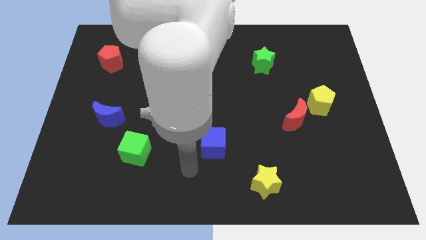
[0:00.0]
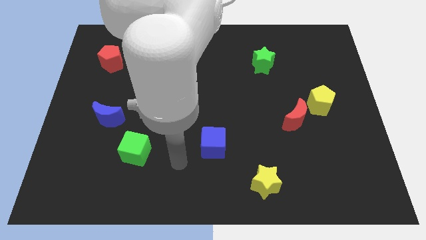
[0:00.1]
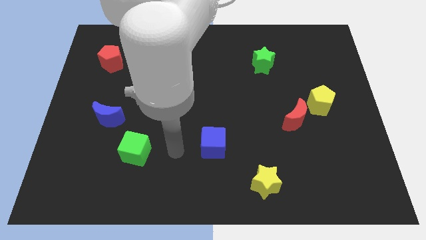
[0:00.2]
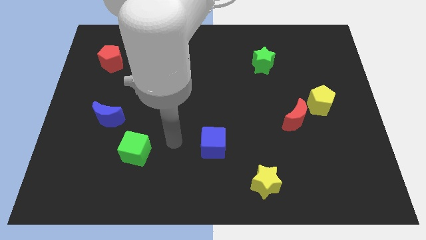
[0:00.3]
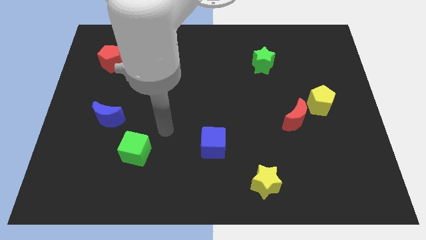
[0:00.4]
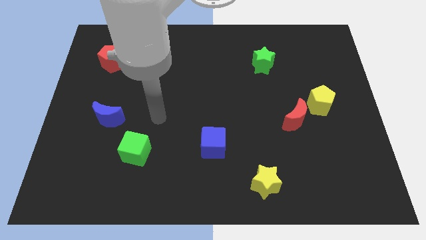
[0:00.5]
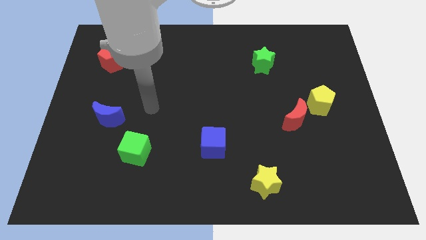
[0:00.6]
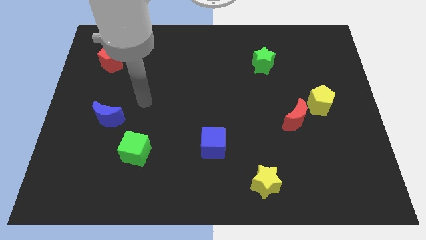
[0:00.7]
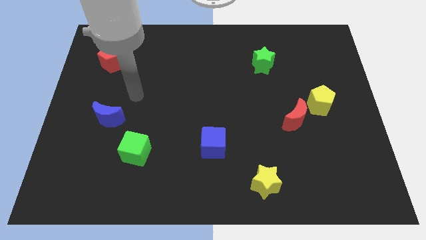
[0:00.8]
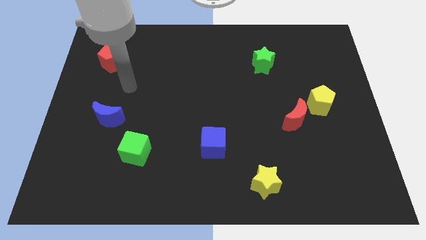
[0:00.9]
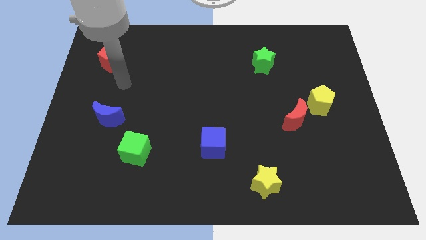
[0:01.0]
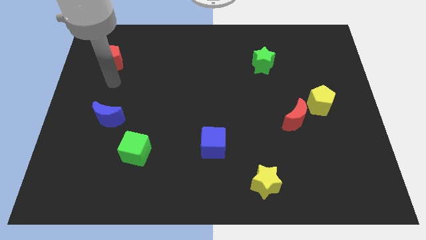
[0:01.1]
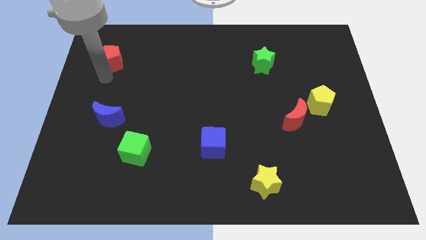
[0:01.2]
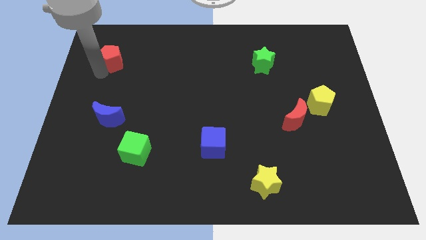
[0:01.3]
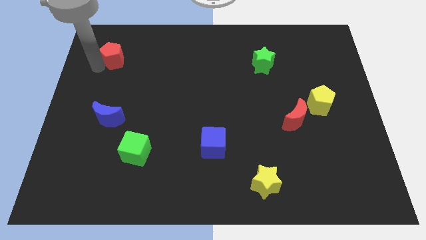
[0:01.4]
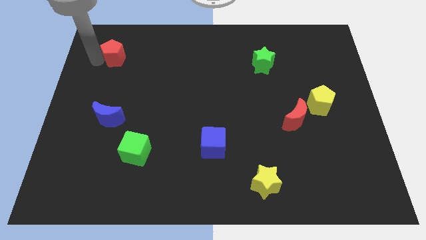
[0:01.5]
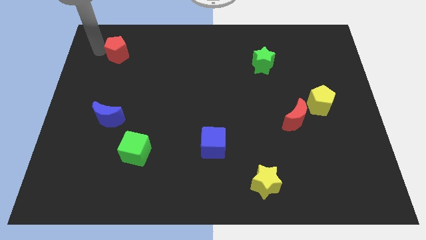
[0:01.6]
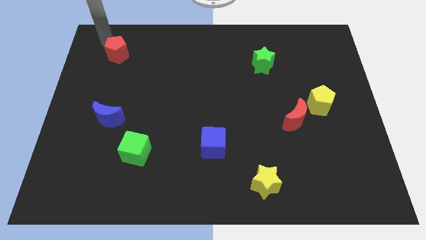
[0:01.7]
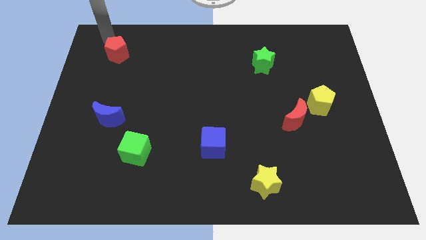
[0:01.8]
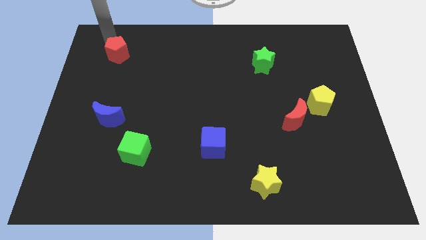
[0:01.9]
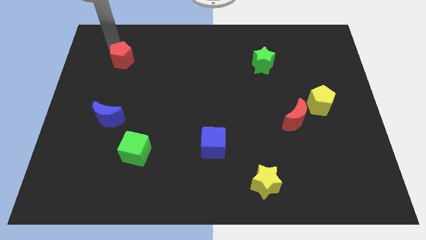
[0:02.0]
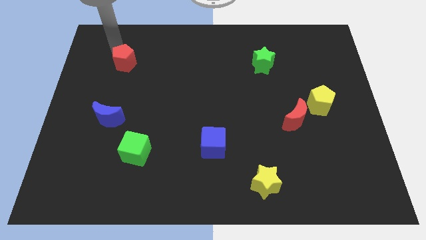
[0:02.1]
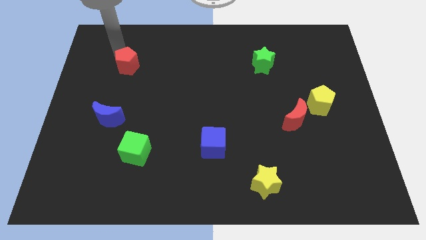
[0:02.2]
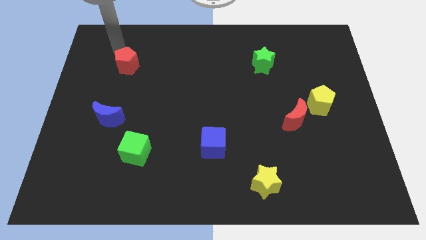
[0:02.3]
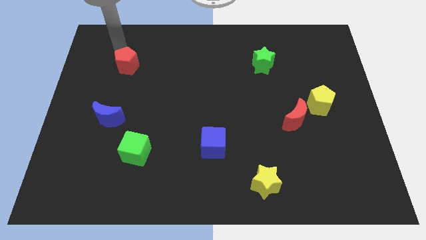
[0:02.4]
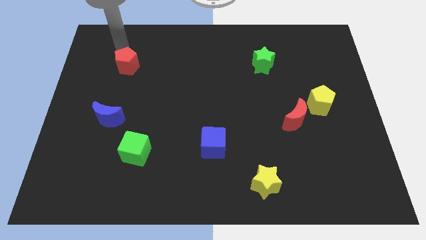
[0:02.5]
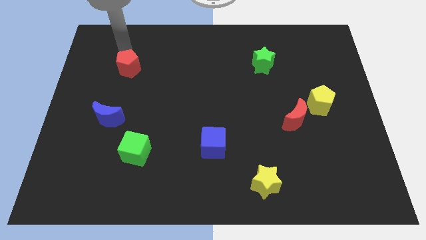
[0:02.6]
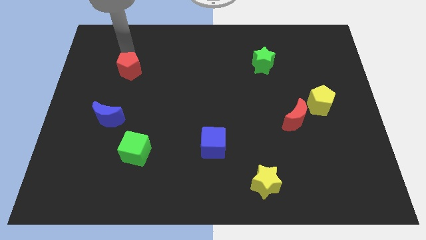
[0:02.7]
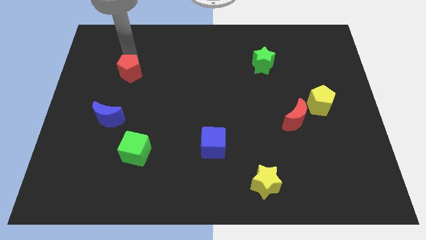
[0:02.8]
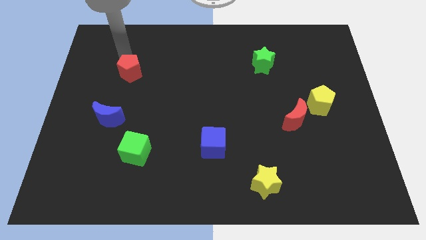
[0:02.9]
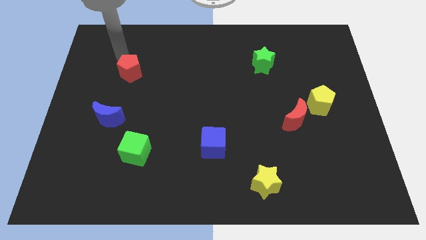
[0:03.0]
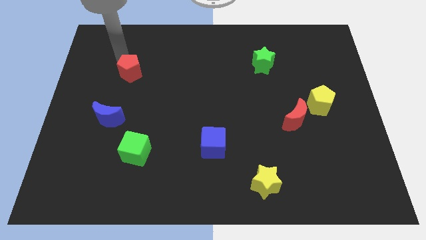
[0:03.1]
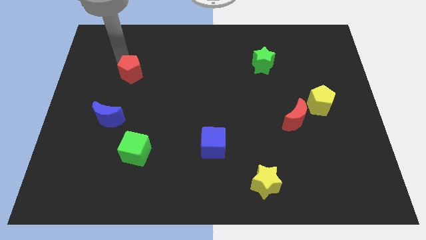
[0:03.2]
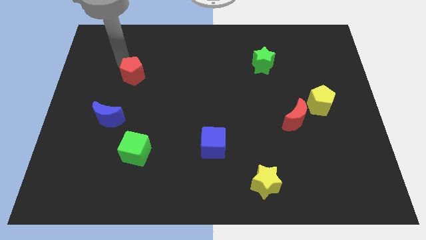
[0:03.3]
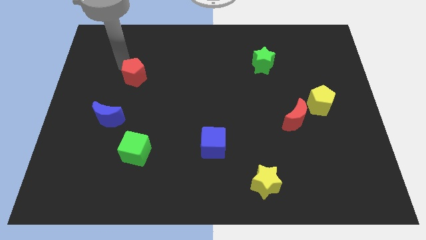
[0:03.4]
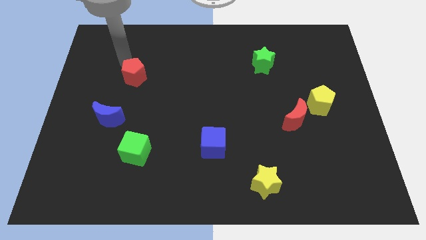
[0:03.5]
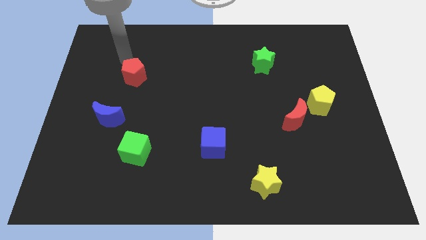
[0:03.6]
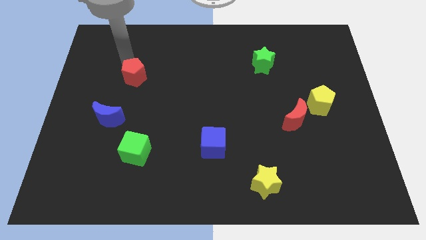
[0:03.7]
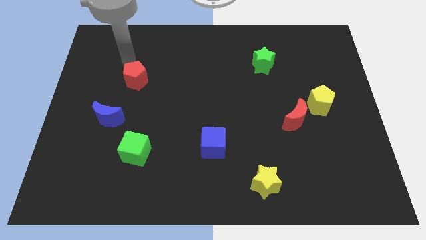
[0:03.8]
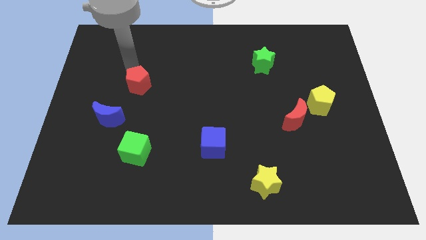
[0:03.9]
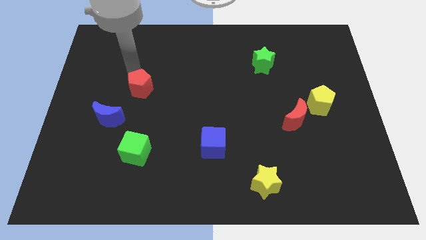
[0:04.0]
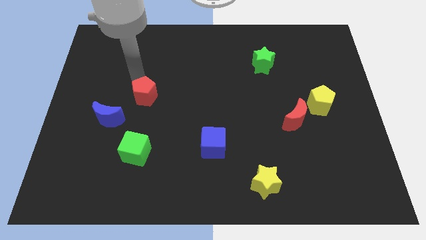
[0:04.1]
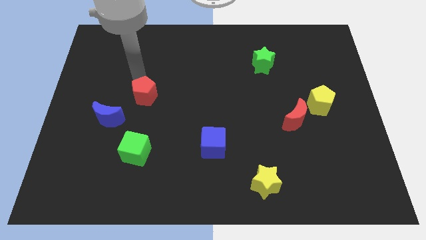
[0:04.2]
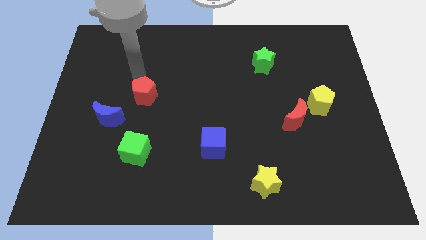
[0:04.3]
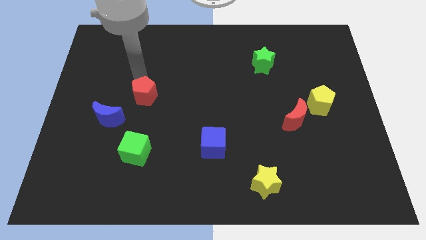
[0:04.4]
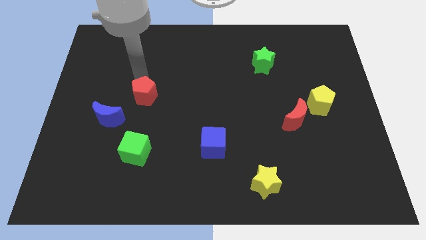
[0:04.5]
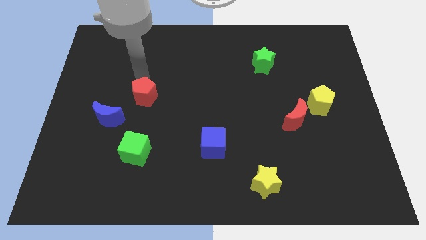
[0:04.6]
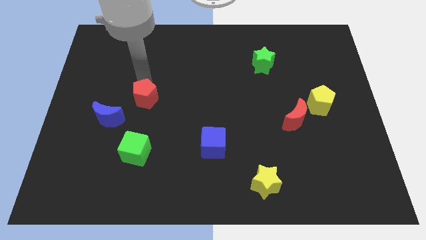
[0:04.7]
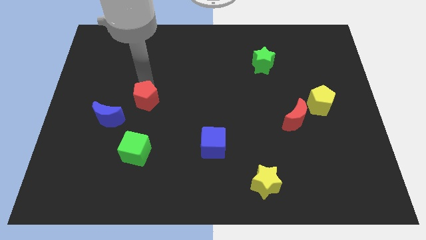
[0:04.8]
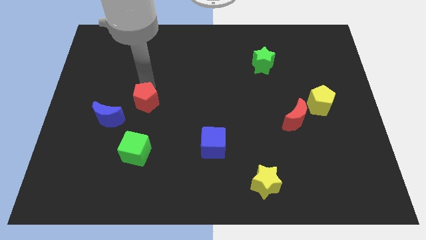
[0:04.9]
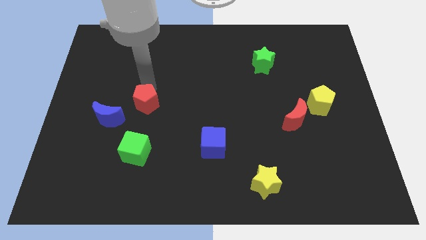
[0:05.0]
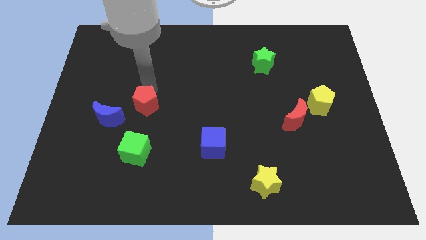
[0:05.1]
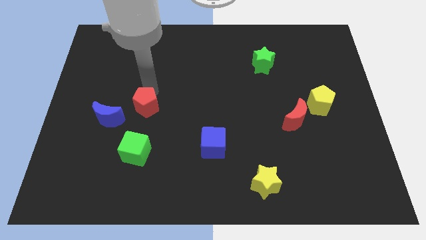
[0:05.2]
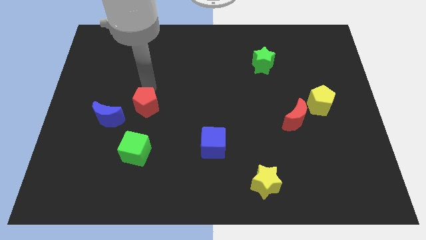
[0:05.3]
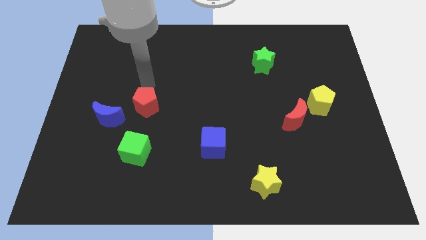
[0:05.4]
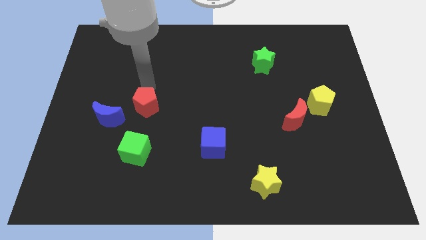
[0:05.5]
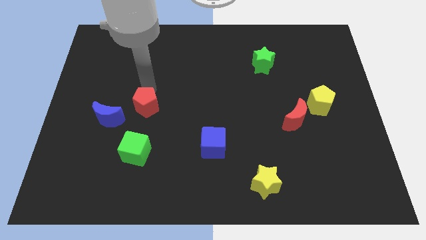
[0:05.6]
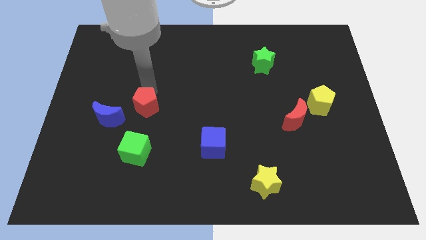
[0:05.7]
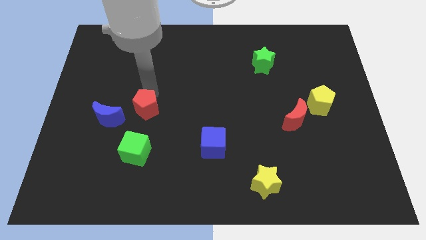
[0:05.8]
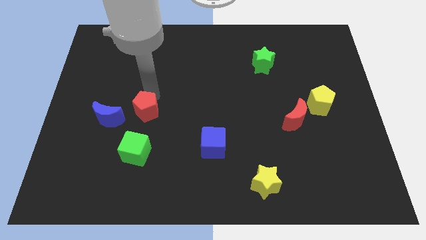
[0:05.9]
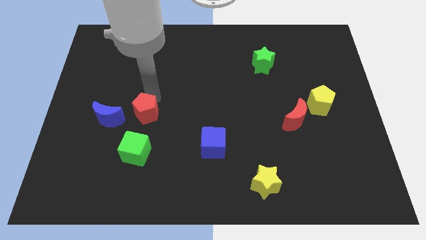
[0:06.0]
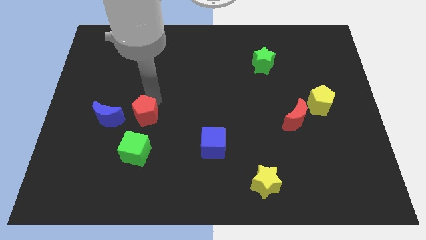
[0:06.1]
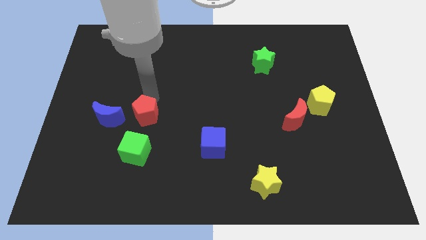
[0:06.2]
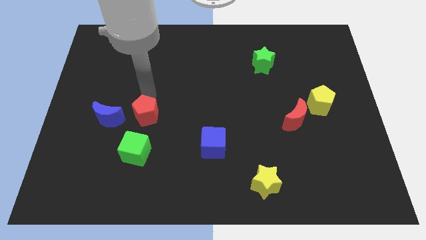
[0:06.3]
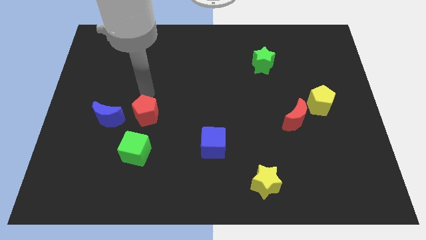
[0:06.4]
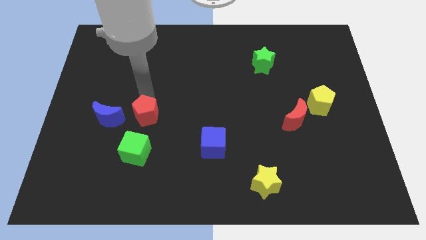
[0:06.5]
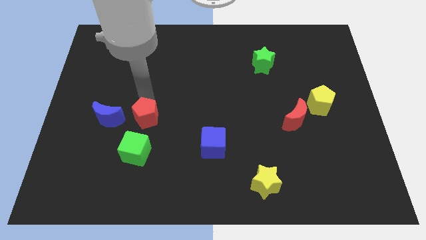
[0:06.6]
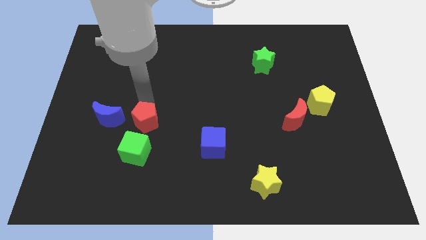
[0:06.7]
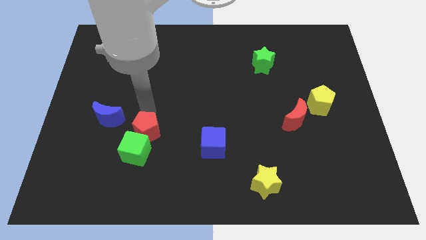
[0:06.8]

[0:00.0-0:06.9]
push the red pentagon towards the green cube

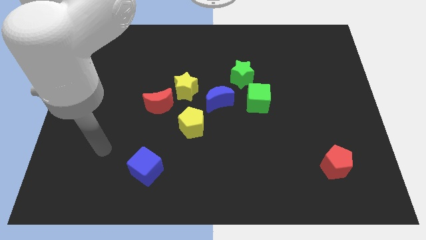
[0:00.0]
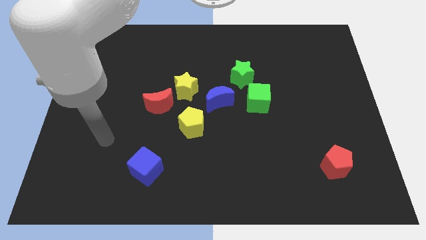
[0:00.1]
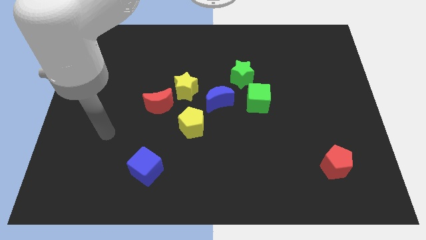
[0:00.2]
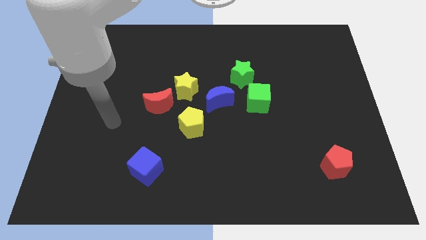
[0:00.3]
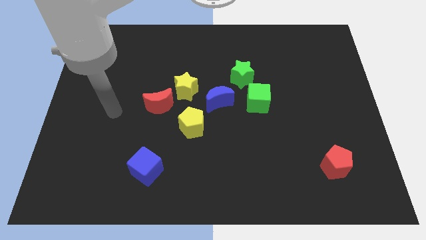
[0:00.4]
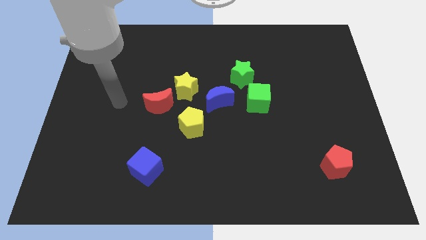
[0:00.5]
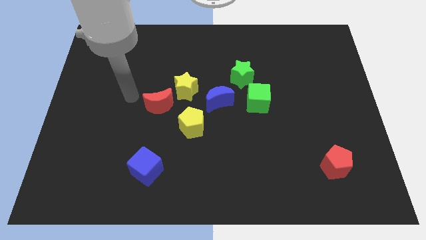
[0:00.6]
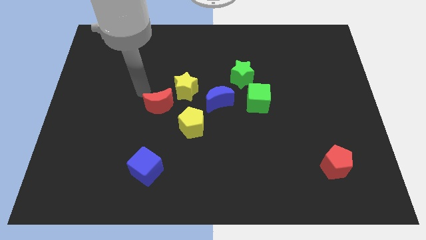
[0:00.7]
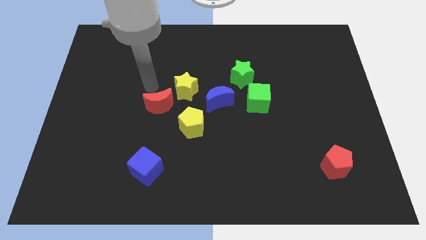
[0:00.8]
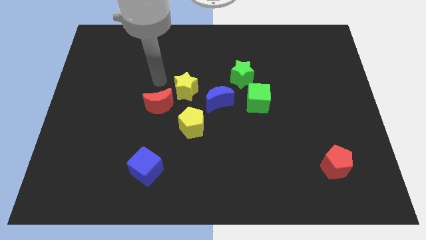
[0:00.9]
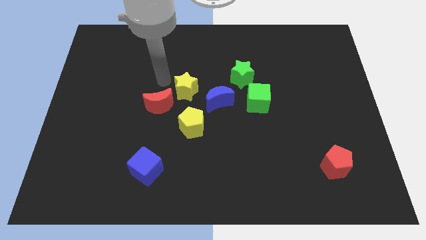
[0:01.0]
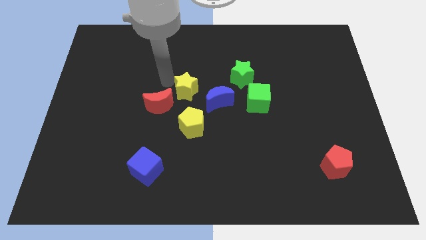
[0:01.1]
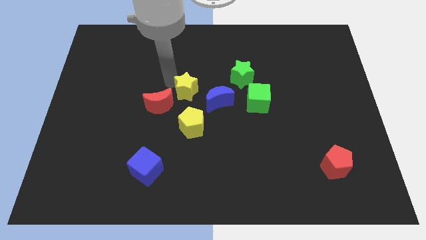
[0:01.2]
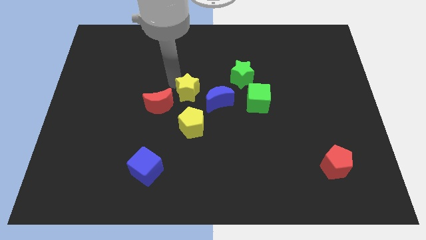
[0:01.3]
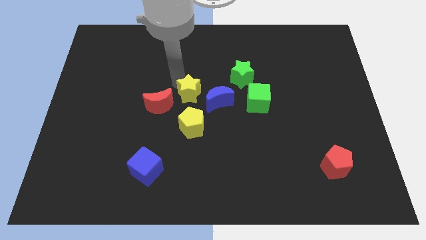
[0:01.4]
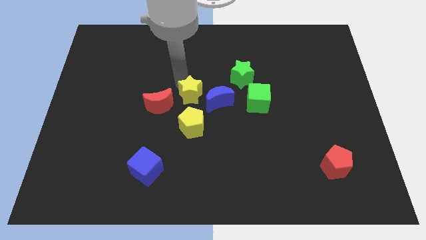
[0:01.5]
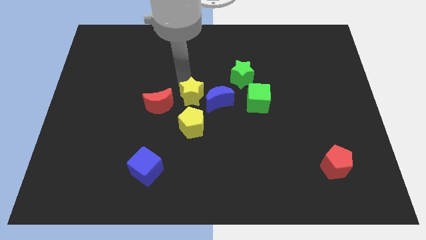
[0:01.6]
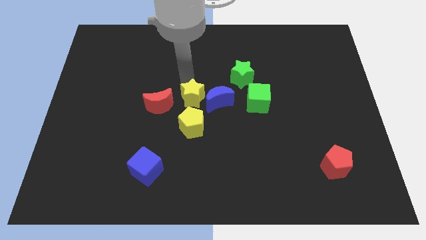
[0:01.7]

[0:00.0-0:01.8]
push the yellow star next to the blue moon
